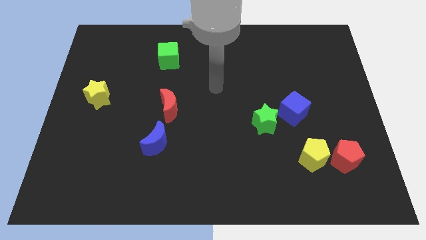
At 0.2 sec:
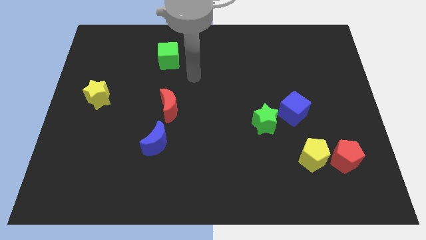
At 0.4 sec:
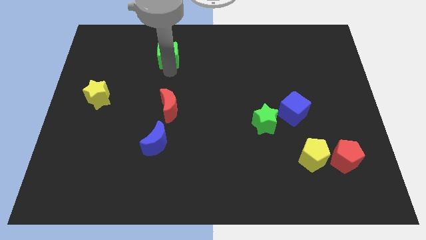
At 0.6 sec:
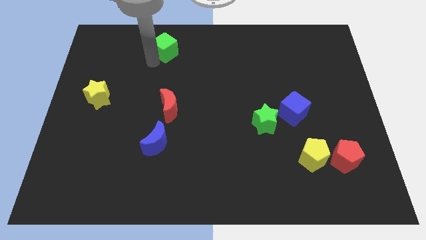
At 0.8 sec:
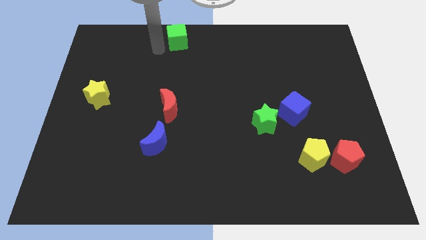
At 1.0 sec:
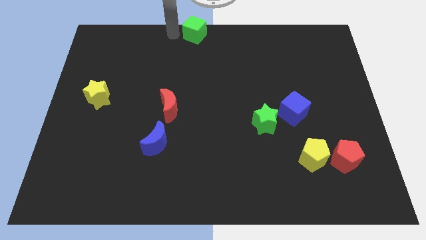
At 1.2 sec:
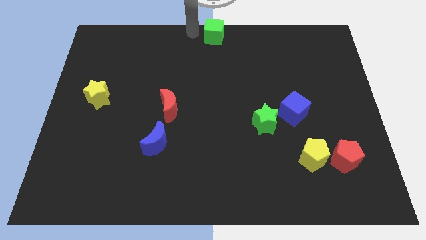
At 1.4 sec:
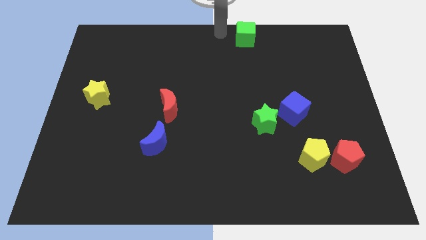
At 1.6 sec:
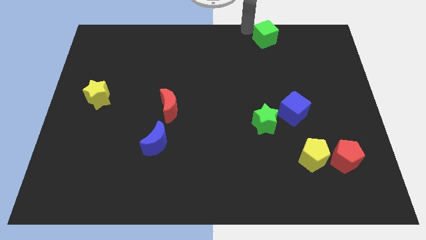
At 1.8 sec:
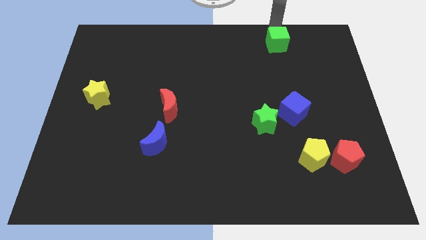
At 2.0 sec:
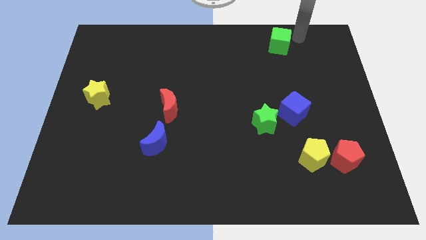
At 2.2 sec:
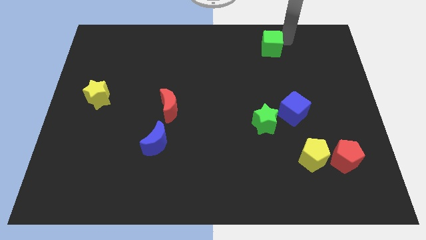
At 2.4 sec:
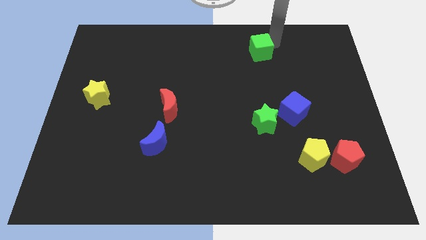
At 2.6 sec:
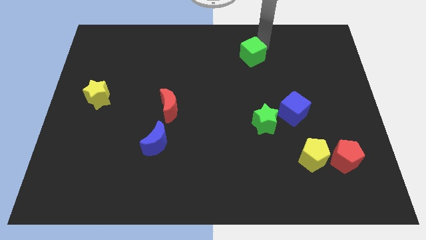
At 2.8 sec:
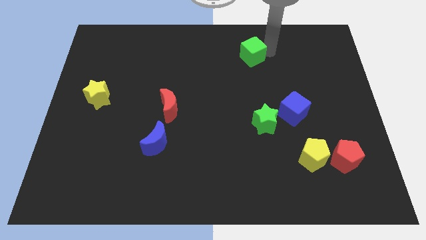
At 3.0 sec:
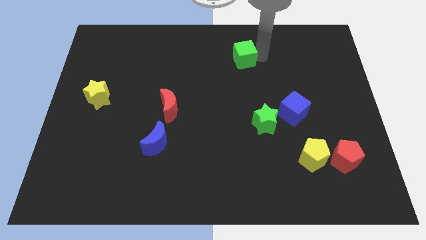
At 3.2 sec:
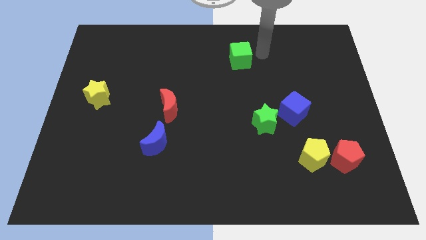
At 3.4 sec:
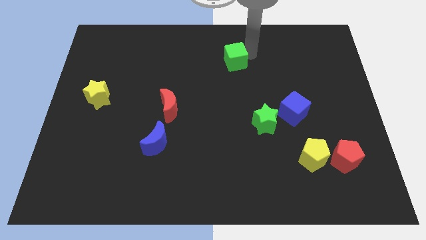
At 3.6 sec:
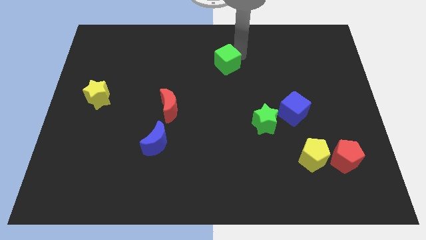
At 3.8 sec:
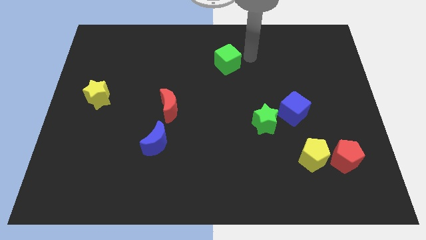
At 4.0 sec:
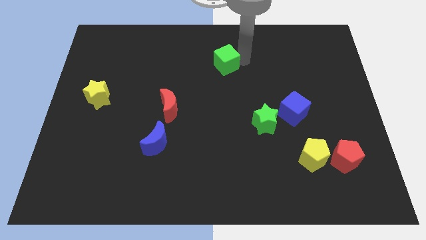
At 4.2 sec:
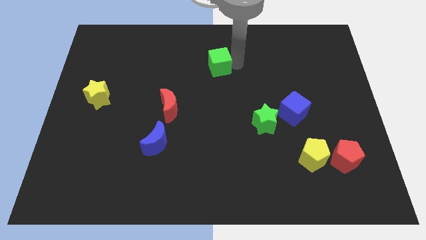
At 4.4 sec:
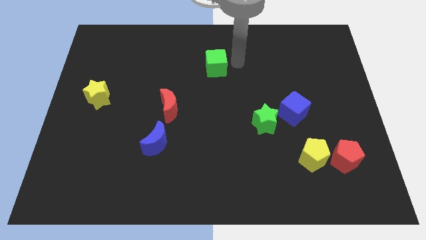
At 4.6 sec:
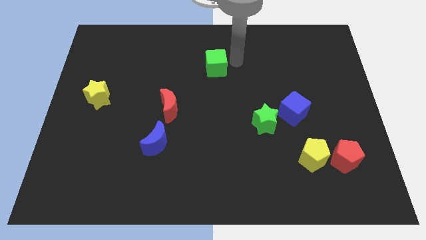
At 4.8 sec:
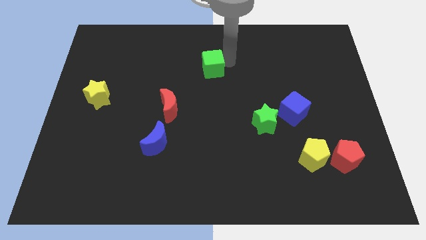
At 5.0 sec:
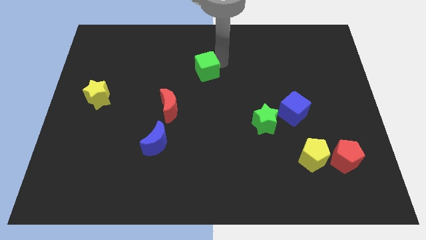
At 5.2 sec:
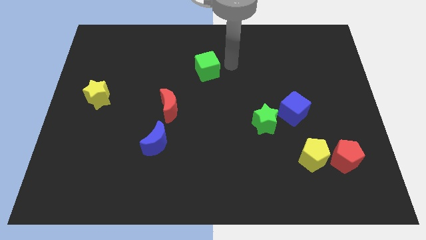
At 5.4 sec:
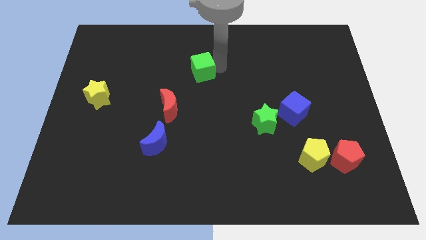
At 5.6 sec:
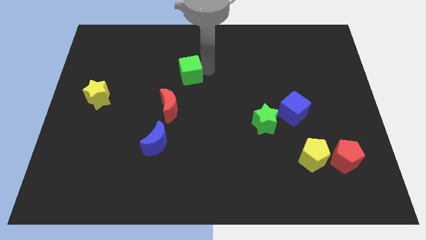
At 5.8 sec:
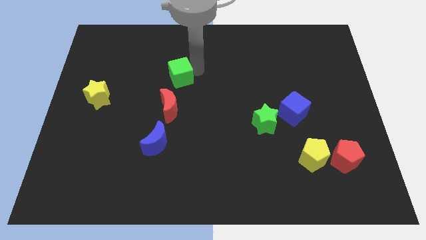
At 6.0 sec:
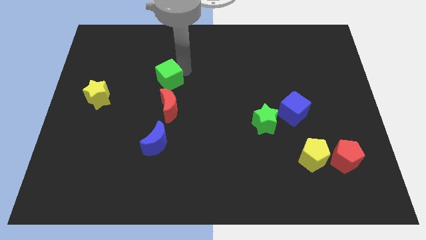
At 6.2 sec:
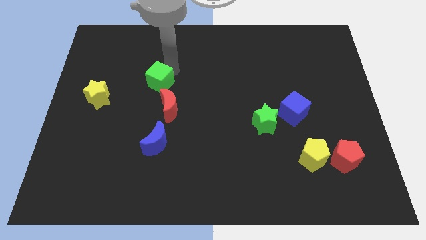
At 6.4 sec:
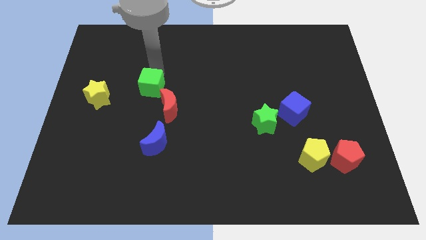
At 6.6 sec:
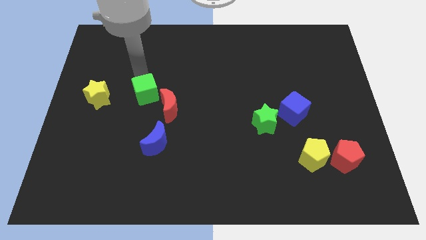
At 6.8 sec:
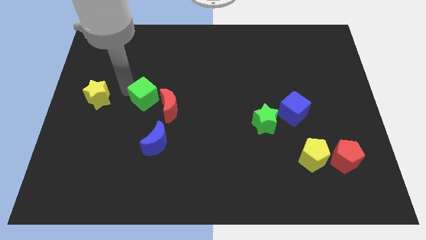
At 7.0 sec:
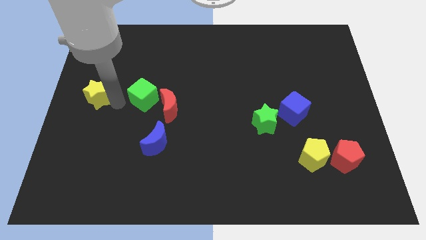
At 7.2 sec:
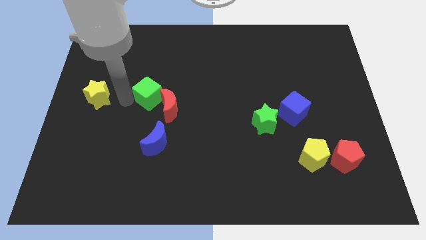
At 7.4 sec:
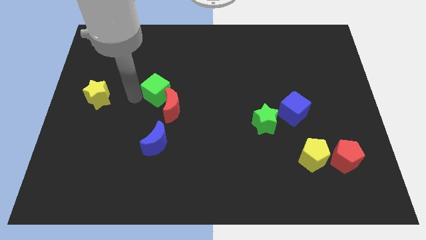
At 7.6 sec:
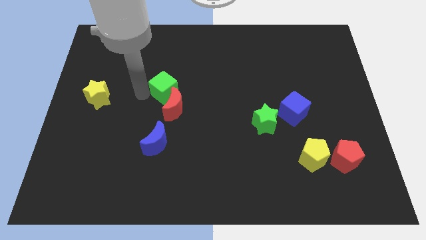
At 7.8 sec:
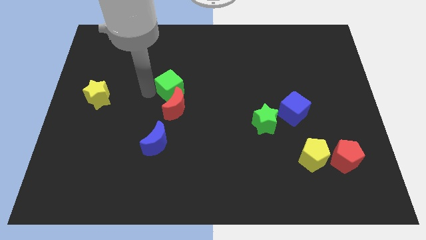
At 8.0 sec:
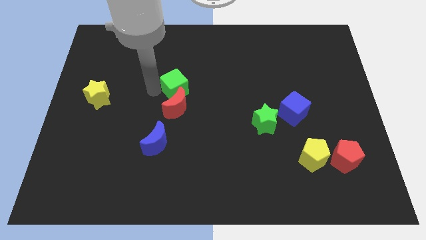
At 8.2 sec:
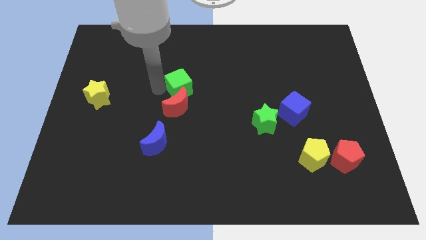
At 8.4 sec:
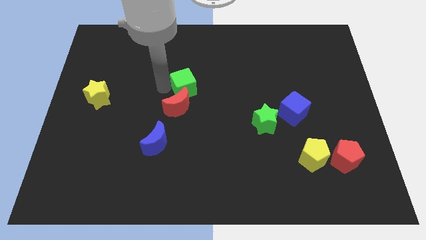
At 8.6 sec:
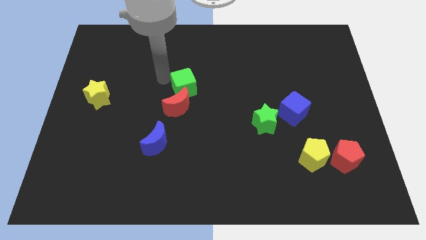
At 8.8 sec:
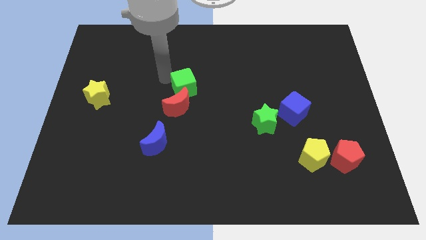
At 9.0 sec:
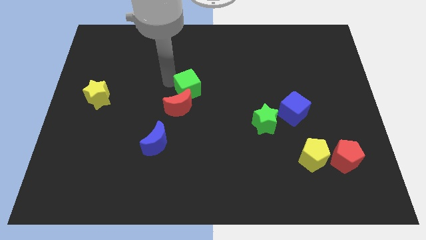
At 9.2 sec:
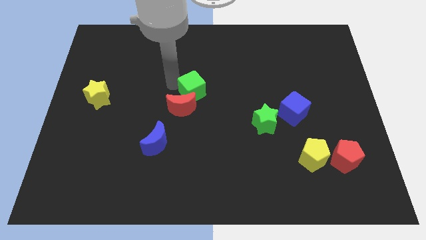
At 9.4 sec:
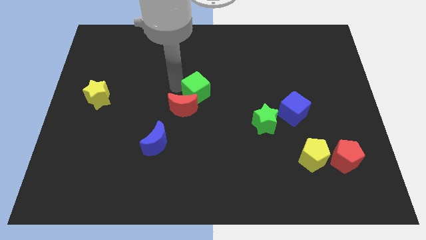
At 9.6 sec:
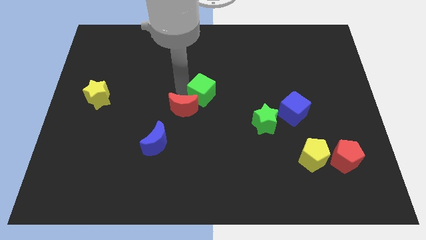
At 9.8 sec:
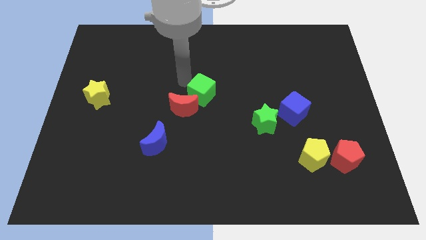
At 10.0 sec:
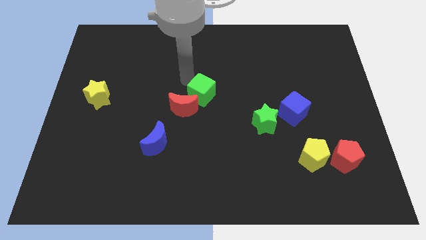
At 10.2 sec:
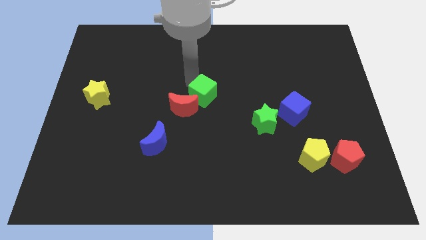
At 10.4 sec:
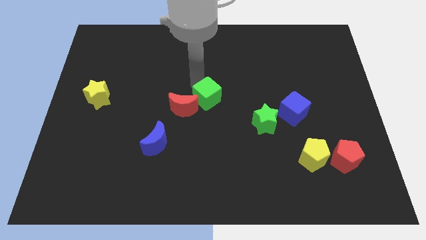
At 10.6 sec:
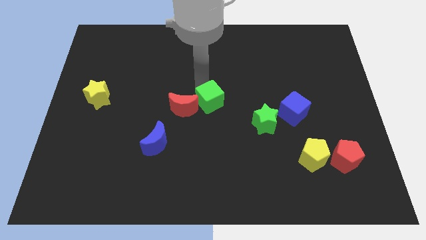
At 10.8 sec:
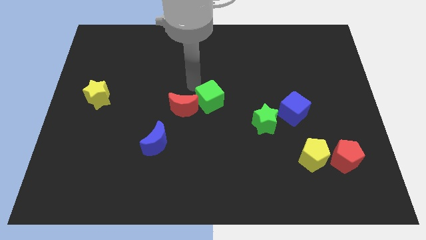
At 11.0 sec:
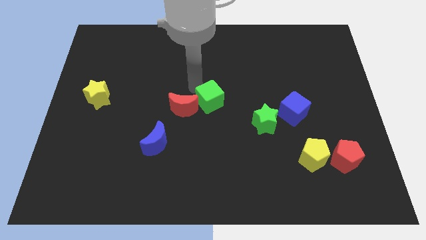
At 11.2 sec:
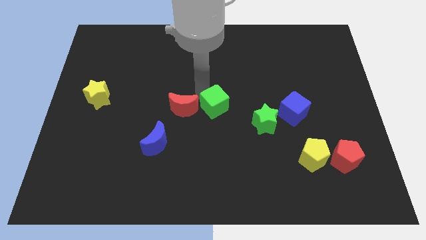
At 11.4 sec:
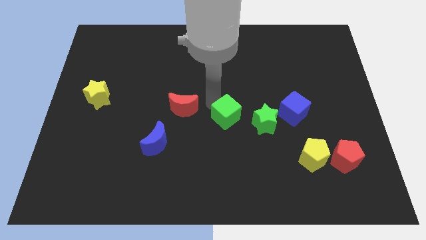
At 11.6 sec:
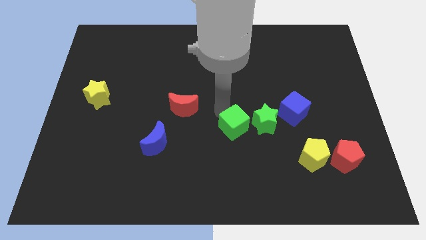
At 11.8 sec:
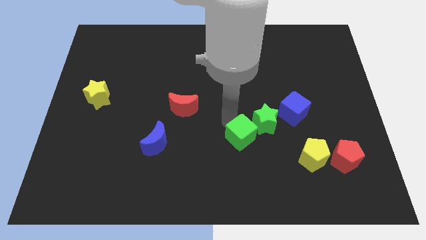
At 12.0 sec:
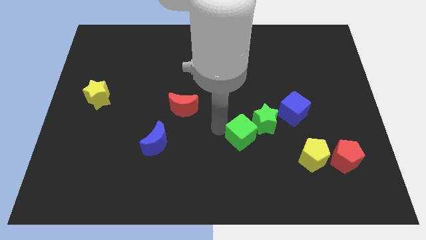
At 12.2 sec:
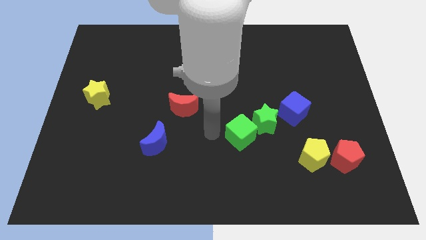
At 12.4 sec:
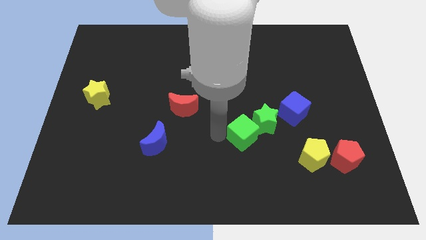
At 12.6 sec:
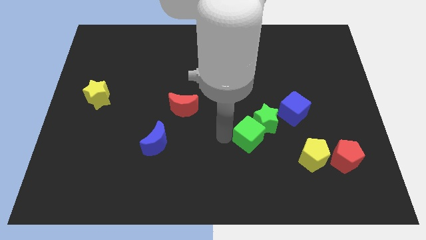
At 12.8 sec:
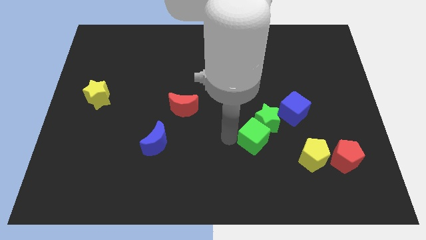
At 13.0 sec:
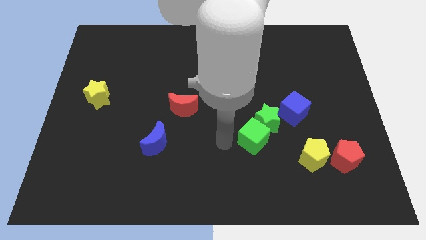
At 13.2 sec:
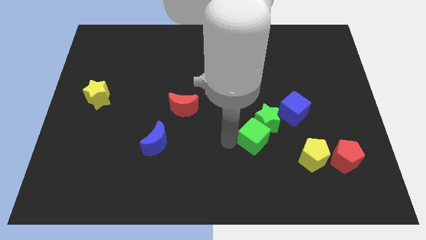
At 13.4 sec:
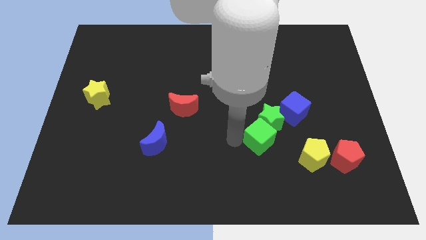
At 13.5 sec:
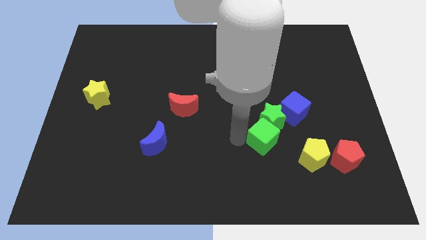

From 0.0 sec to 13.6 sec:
move the green cube to the top left side of the yellow pentagon
